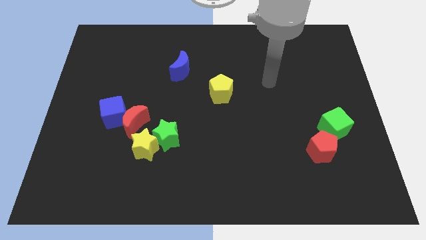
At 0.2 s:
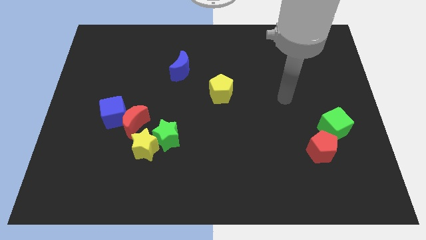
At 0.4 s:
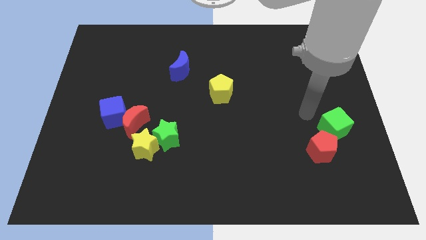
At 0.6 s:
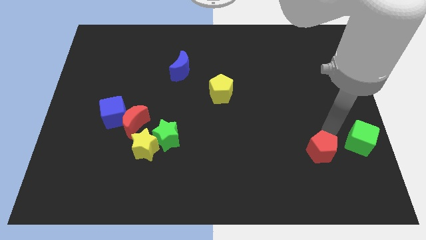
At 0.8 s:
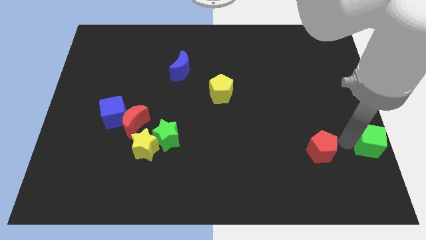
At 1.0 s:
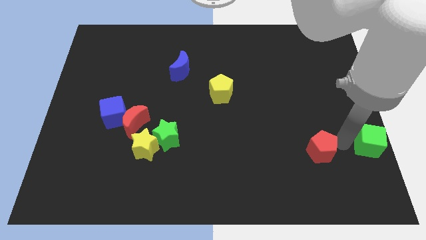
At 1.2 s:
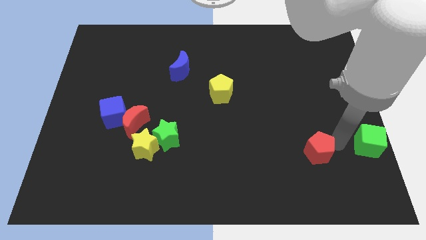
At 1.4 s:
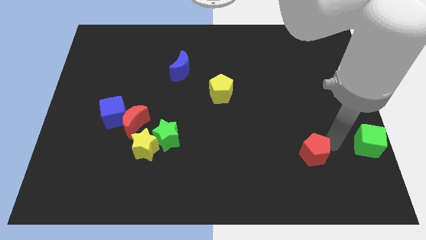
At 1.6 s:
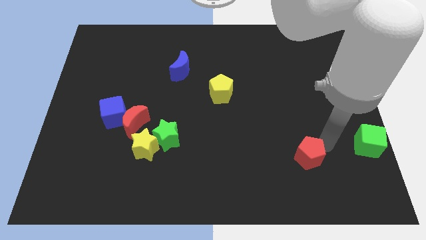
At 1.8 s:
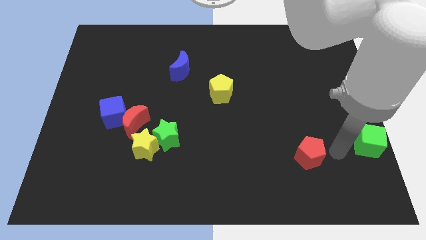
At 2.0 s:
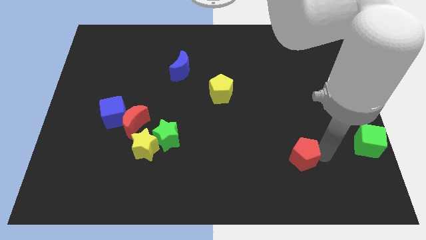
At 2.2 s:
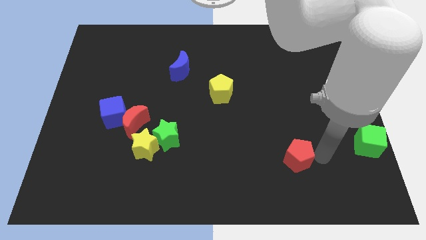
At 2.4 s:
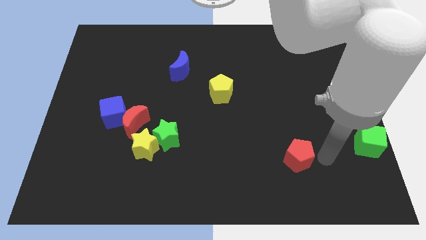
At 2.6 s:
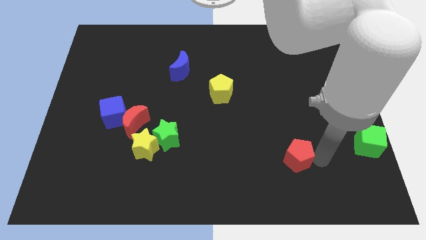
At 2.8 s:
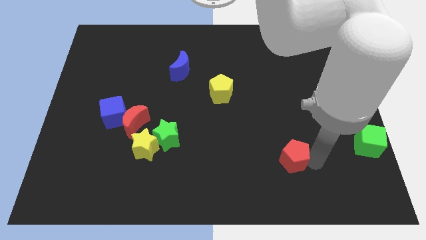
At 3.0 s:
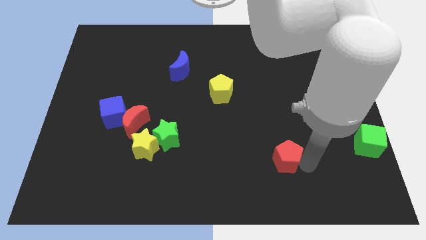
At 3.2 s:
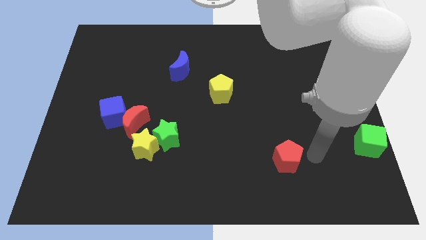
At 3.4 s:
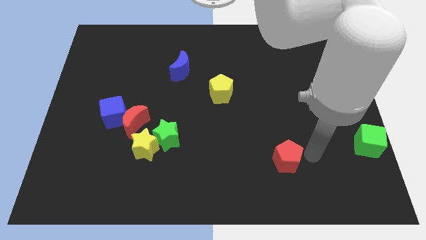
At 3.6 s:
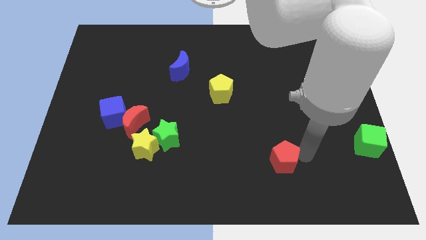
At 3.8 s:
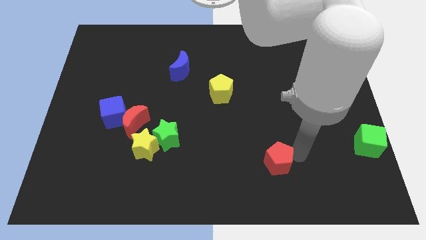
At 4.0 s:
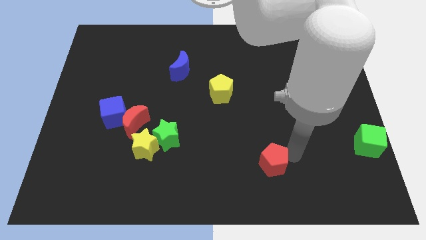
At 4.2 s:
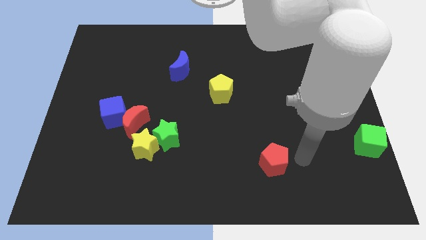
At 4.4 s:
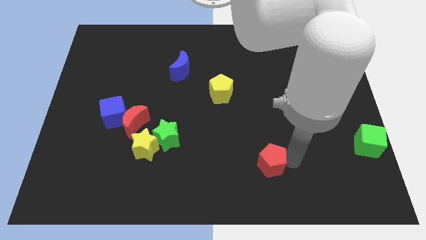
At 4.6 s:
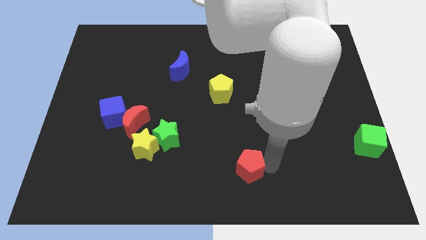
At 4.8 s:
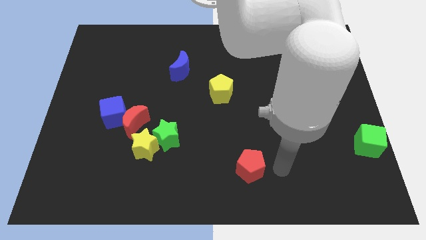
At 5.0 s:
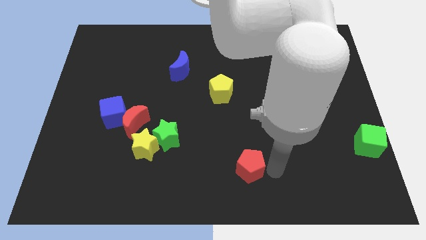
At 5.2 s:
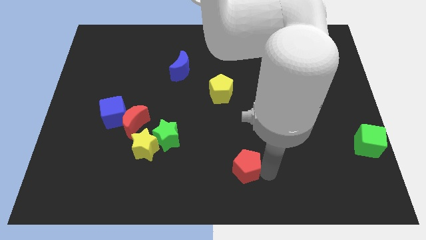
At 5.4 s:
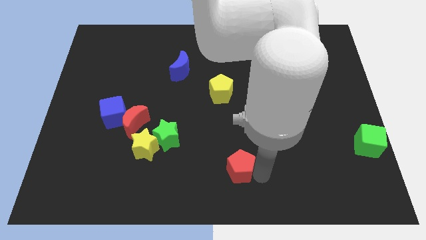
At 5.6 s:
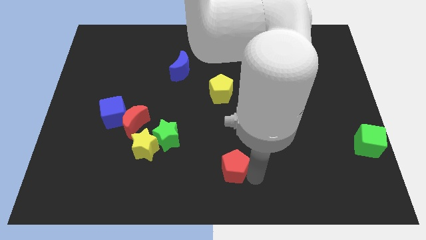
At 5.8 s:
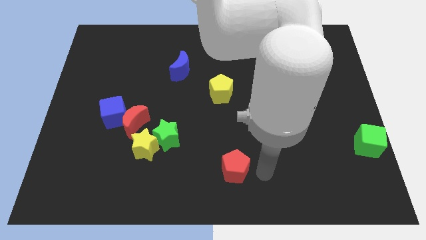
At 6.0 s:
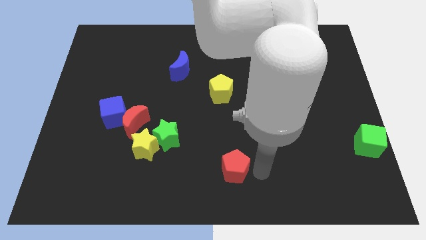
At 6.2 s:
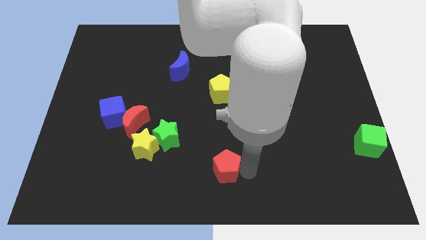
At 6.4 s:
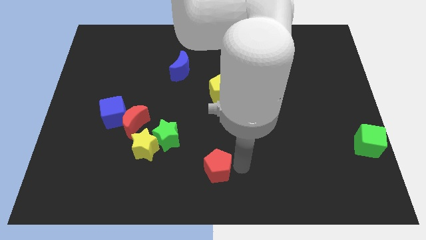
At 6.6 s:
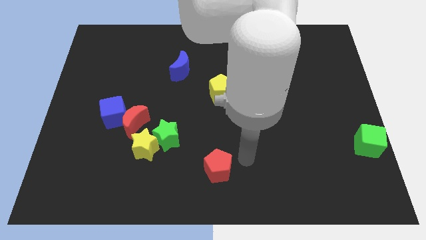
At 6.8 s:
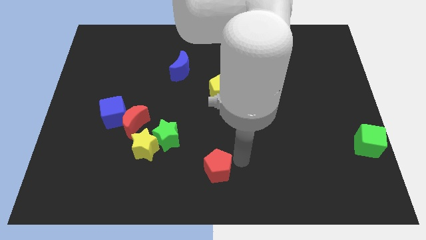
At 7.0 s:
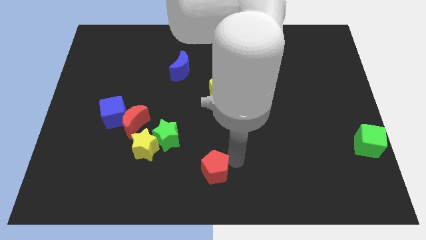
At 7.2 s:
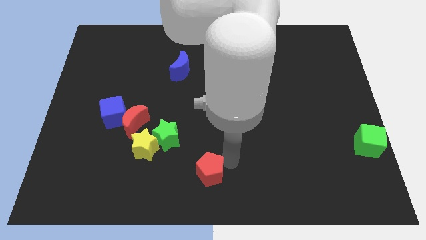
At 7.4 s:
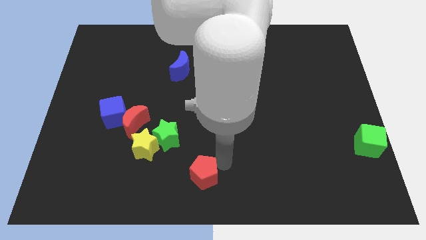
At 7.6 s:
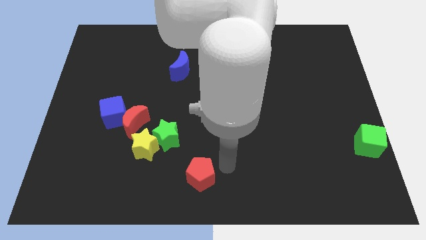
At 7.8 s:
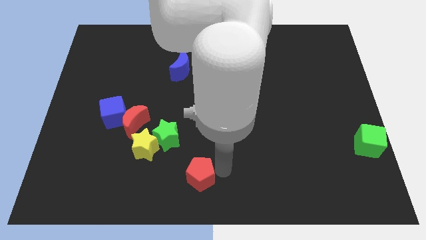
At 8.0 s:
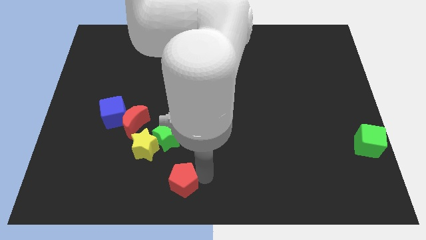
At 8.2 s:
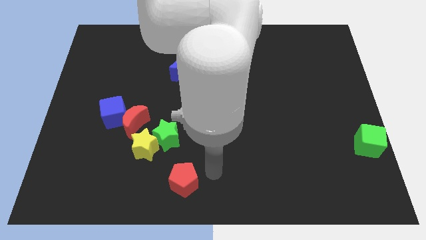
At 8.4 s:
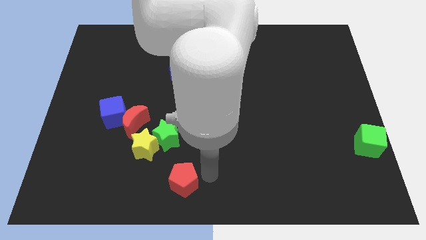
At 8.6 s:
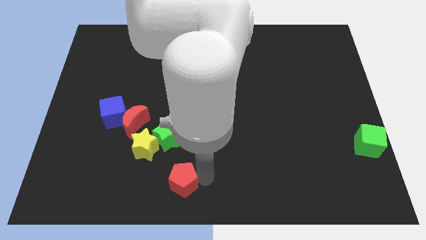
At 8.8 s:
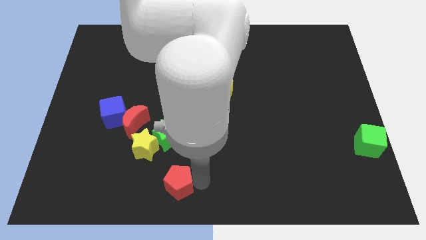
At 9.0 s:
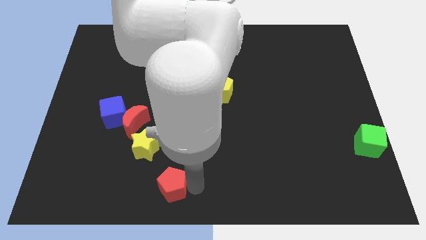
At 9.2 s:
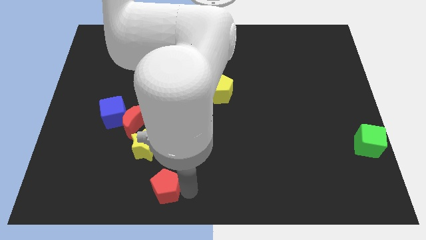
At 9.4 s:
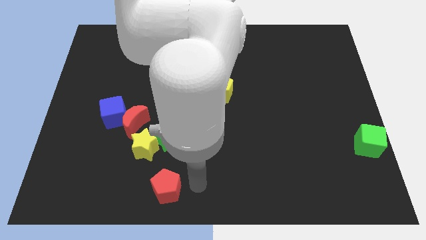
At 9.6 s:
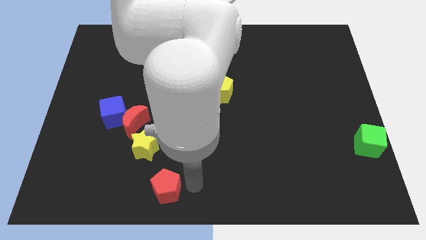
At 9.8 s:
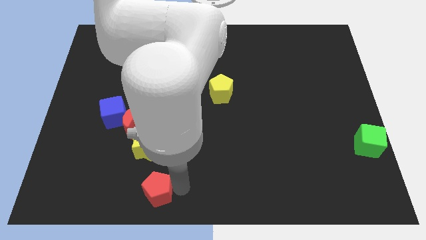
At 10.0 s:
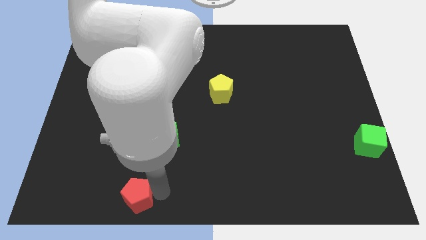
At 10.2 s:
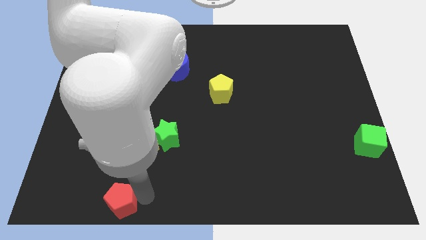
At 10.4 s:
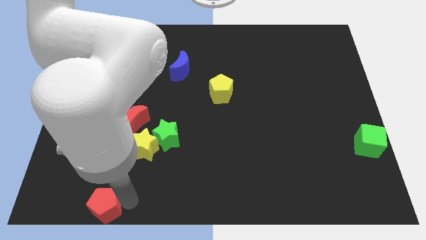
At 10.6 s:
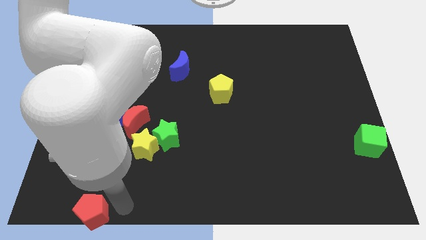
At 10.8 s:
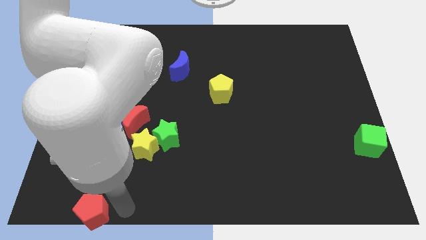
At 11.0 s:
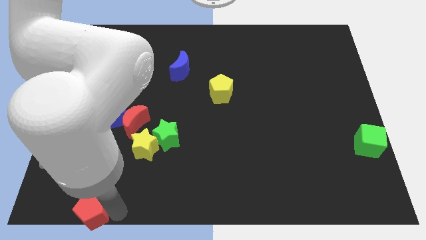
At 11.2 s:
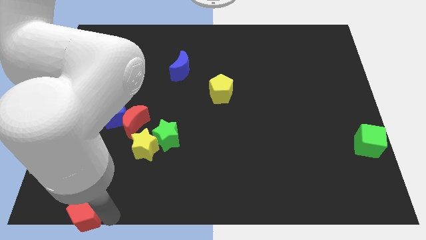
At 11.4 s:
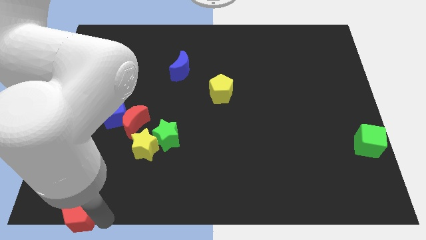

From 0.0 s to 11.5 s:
slide the red pentagon to the bottom left corner
